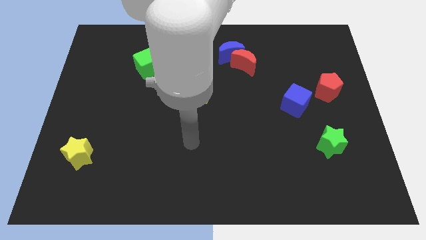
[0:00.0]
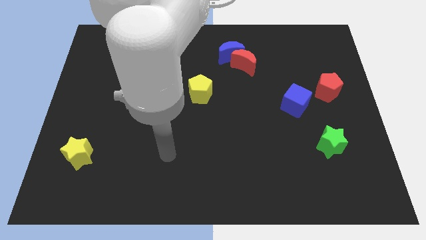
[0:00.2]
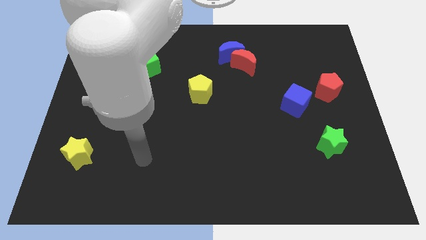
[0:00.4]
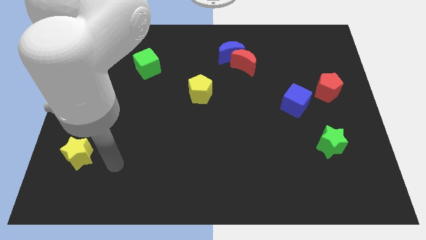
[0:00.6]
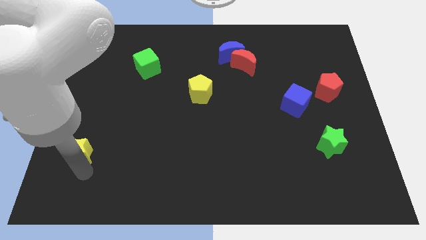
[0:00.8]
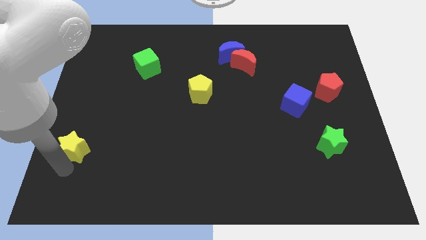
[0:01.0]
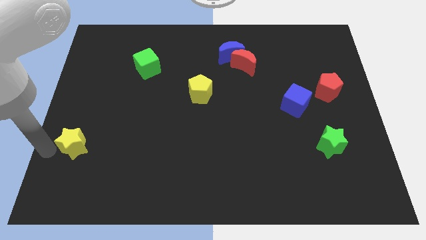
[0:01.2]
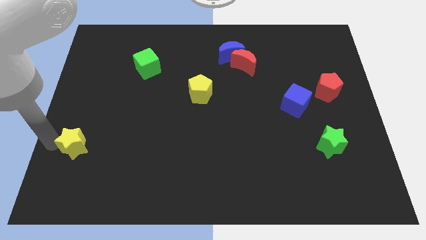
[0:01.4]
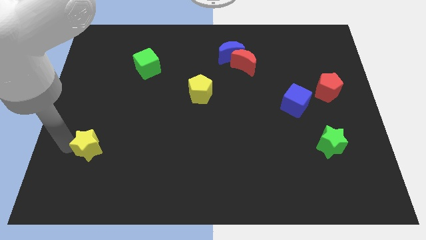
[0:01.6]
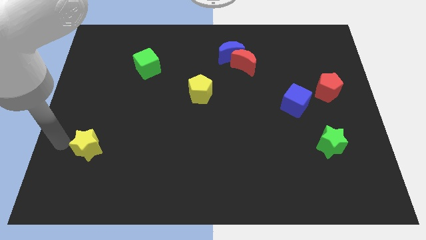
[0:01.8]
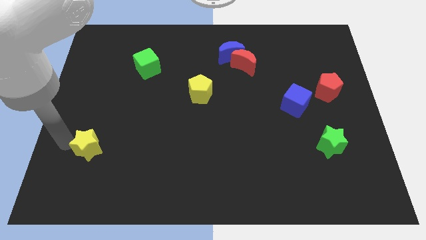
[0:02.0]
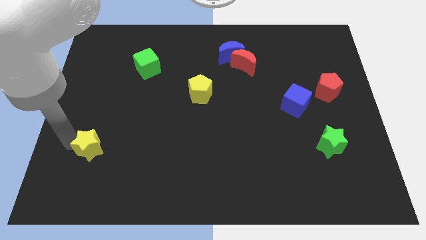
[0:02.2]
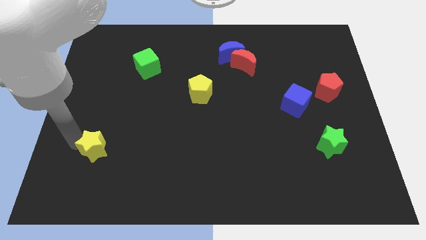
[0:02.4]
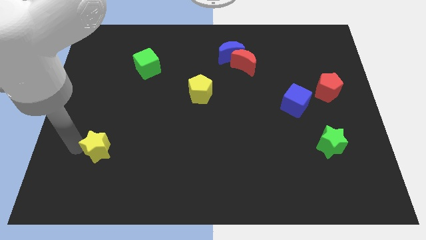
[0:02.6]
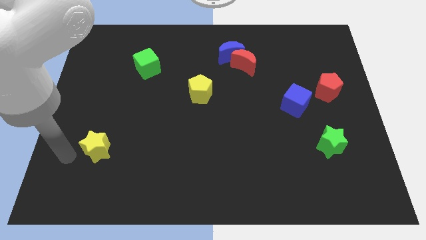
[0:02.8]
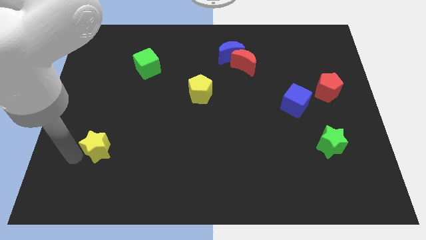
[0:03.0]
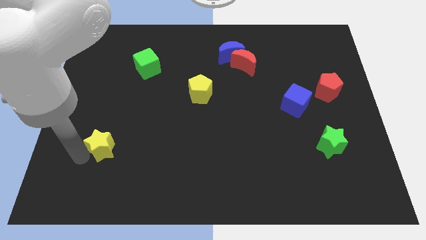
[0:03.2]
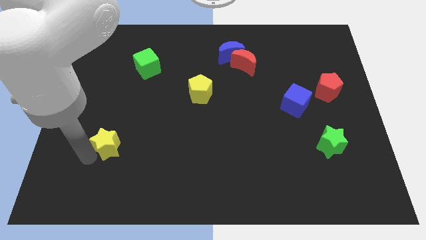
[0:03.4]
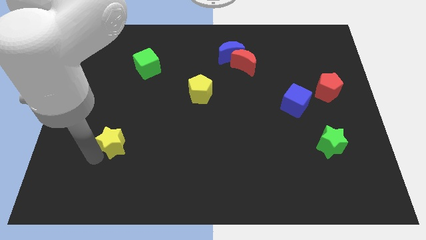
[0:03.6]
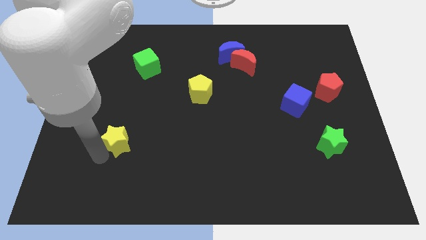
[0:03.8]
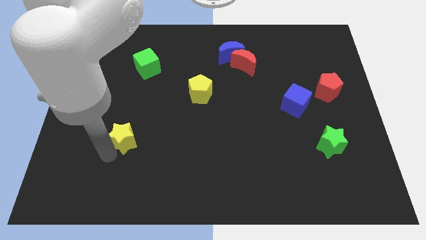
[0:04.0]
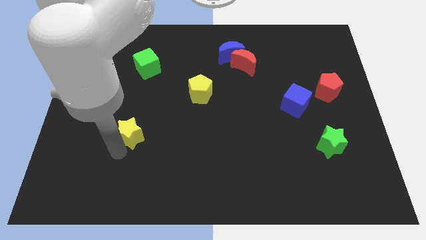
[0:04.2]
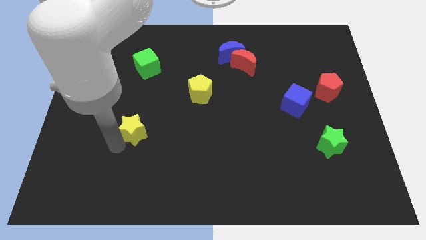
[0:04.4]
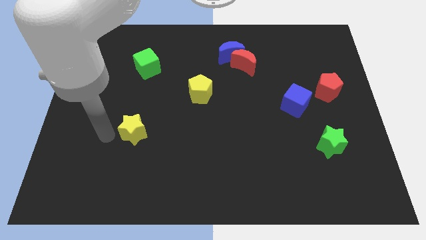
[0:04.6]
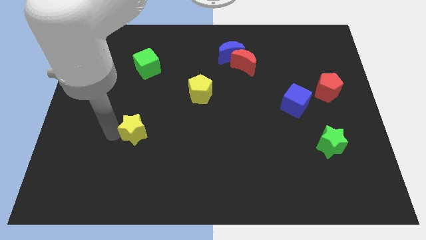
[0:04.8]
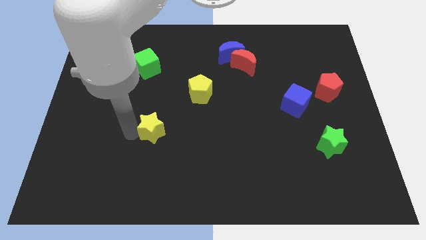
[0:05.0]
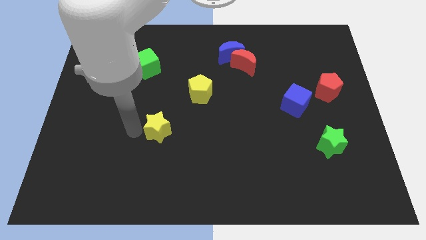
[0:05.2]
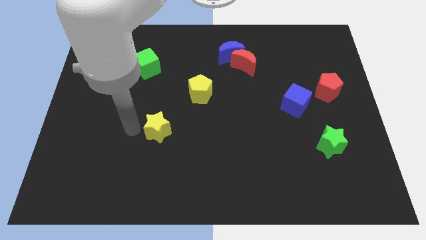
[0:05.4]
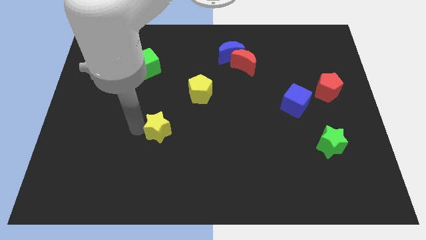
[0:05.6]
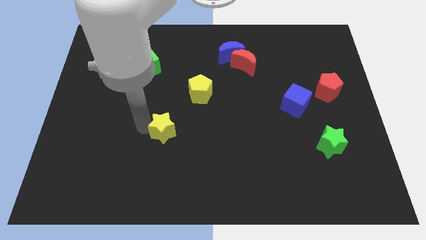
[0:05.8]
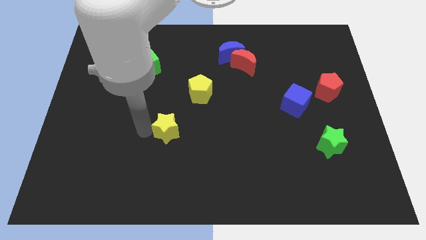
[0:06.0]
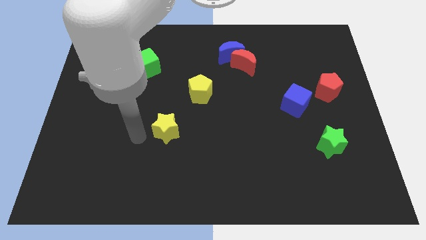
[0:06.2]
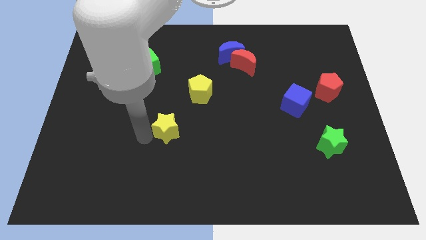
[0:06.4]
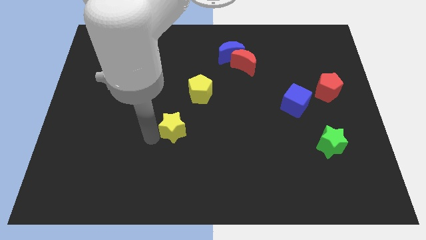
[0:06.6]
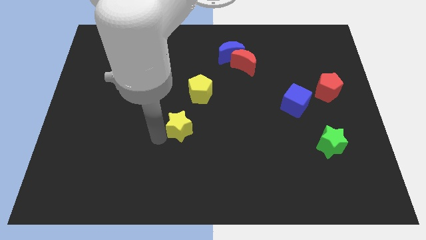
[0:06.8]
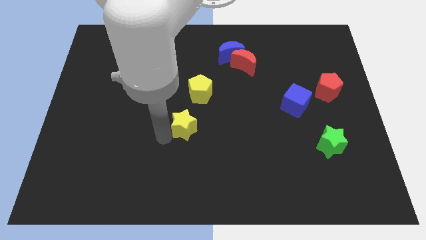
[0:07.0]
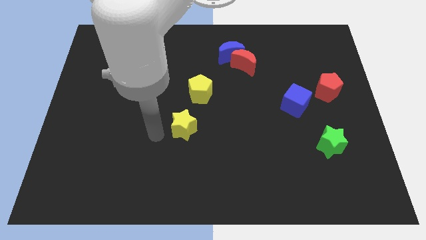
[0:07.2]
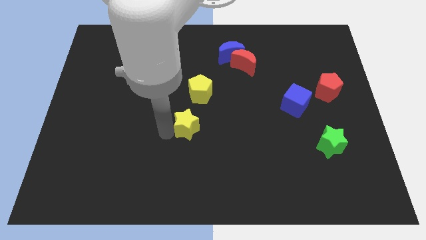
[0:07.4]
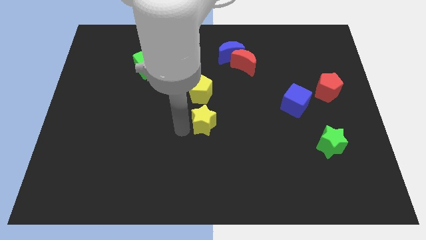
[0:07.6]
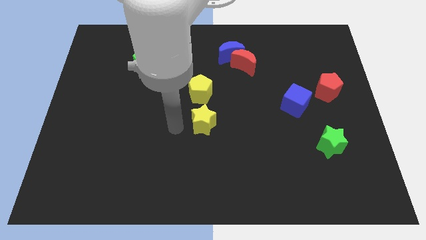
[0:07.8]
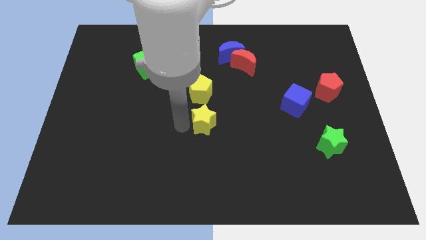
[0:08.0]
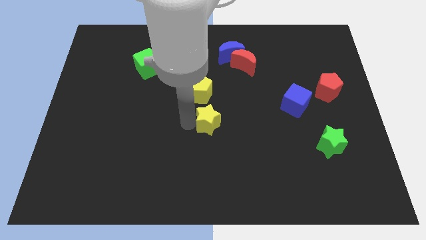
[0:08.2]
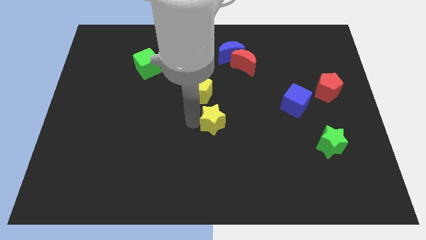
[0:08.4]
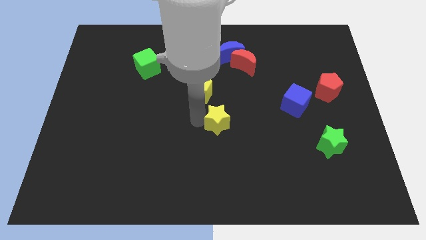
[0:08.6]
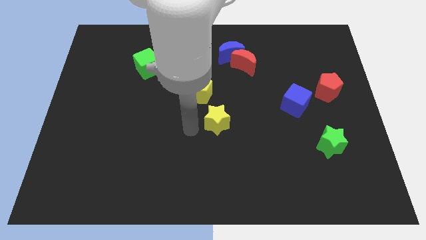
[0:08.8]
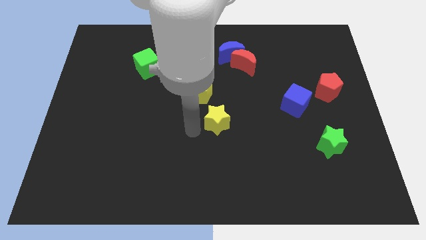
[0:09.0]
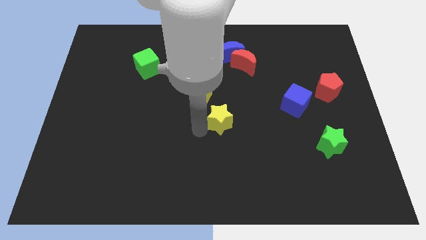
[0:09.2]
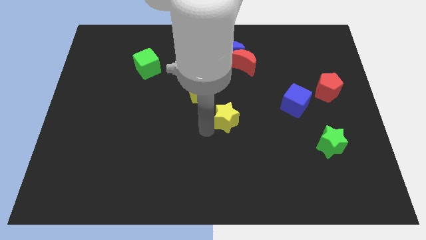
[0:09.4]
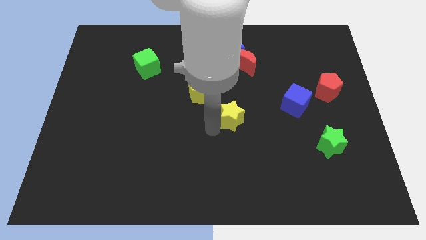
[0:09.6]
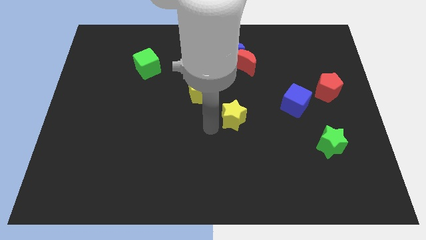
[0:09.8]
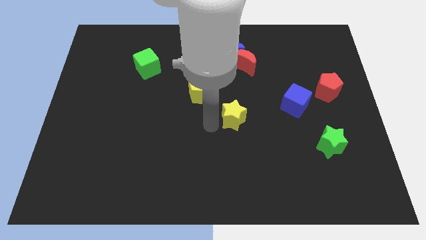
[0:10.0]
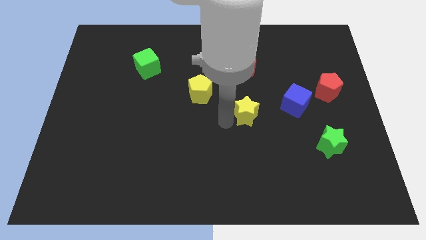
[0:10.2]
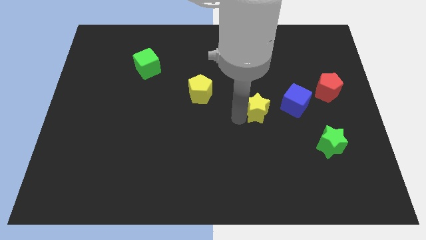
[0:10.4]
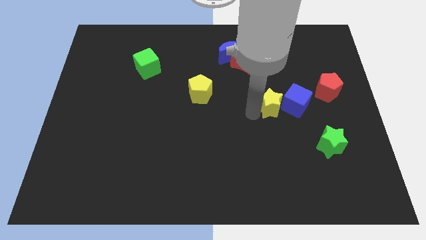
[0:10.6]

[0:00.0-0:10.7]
push the yellow star towards the blue cube

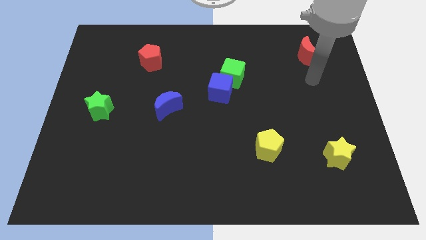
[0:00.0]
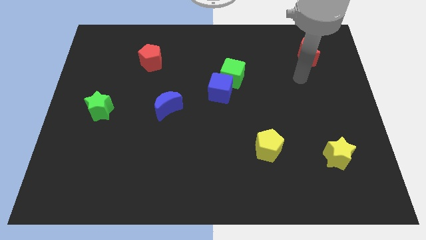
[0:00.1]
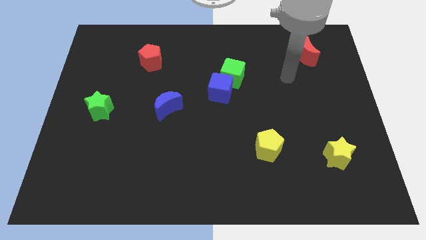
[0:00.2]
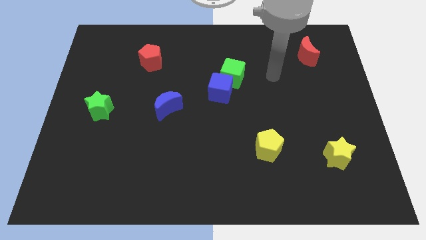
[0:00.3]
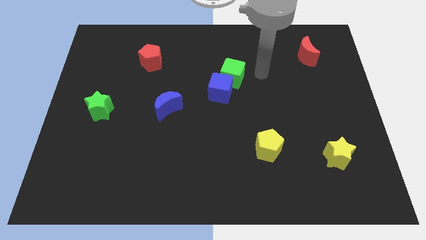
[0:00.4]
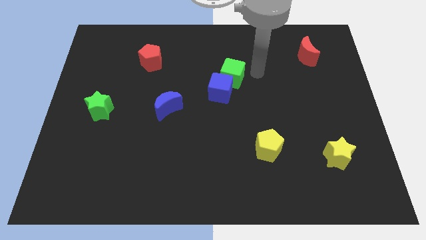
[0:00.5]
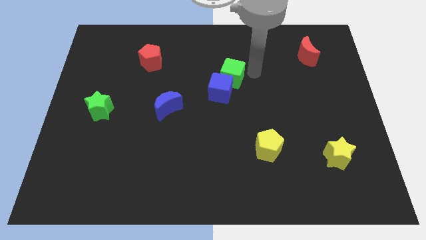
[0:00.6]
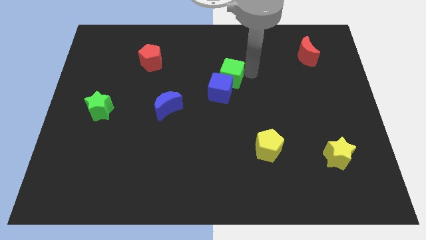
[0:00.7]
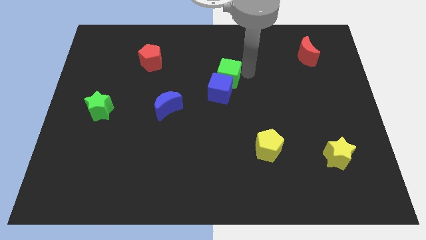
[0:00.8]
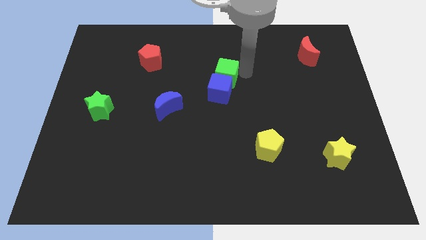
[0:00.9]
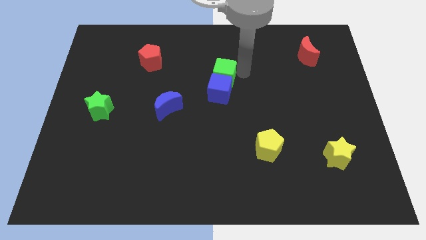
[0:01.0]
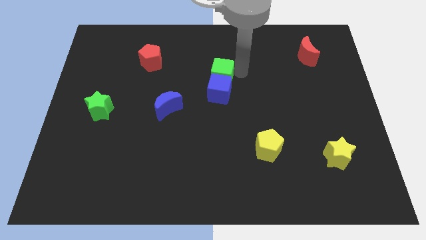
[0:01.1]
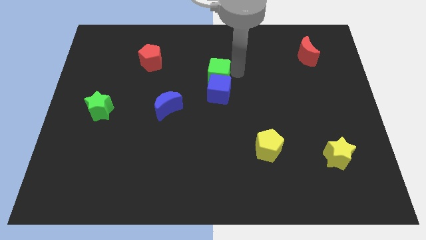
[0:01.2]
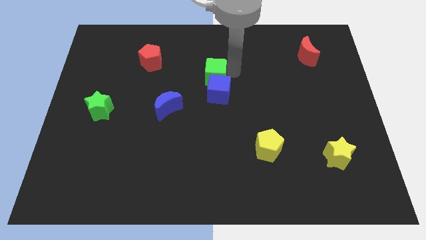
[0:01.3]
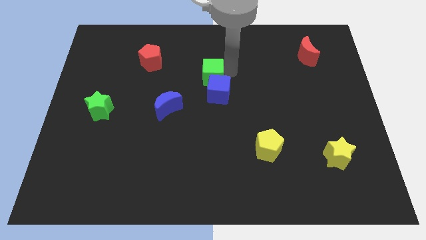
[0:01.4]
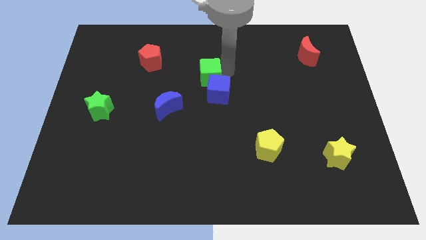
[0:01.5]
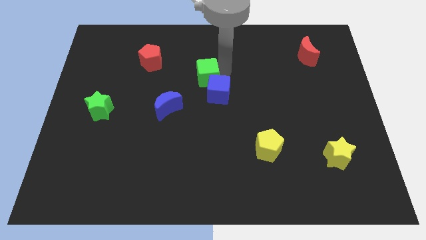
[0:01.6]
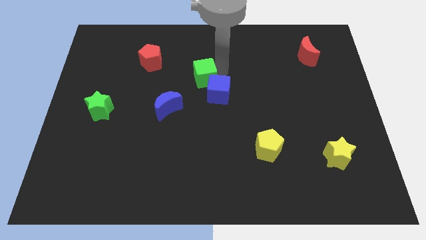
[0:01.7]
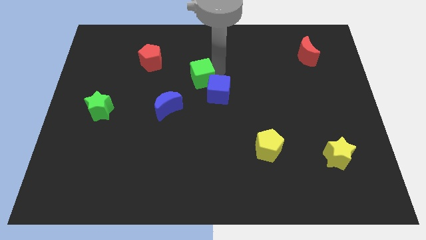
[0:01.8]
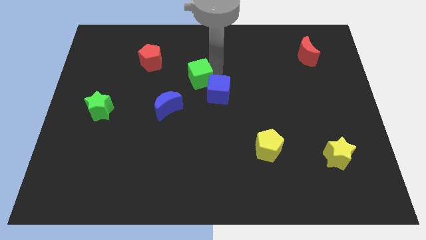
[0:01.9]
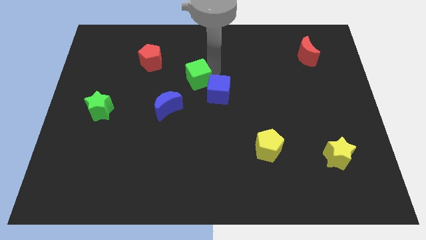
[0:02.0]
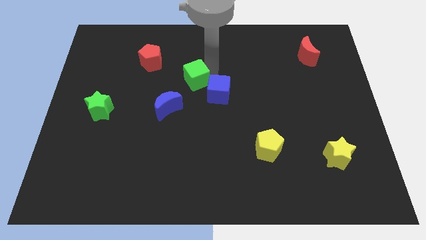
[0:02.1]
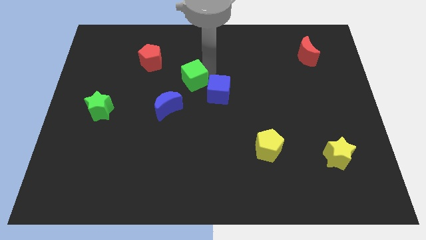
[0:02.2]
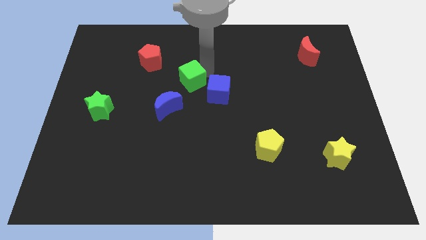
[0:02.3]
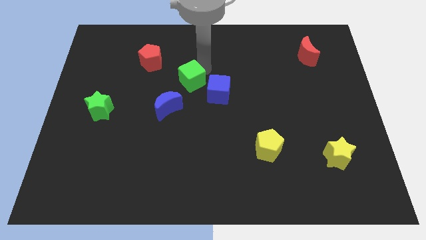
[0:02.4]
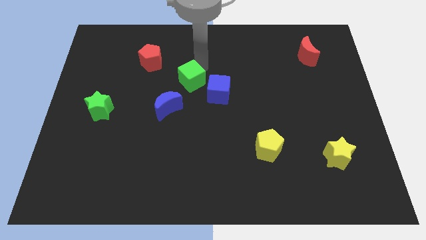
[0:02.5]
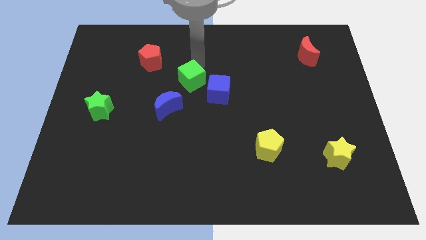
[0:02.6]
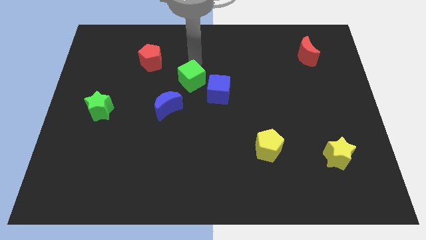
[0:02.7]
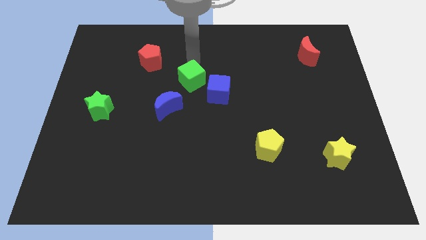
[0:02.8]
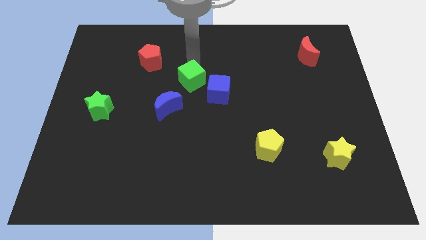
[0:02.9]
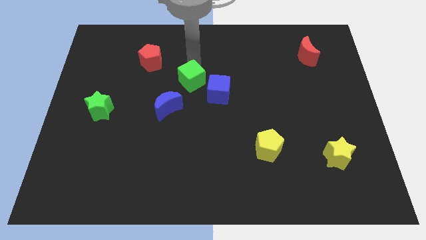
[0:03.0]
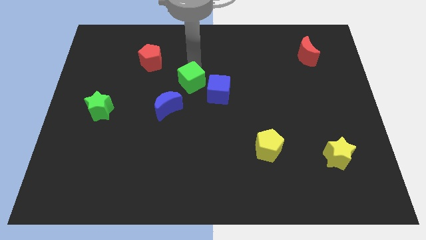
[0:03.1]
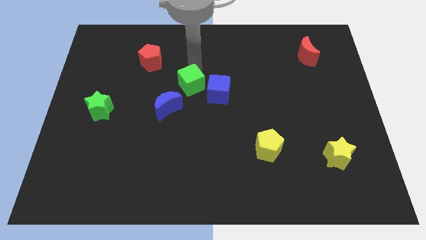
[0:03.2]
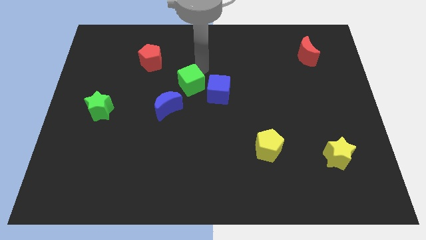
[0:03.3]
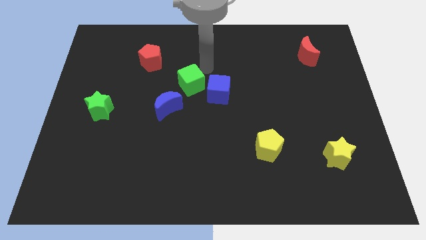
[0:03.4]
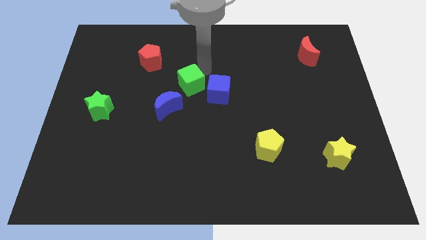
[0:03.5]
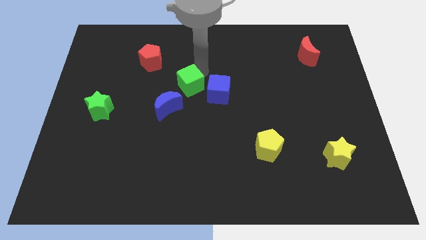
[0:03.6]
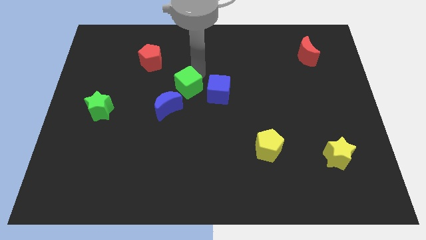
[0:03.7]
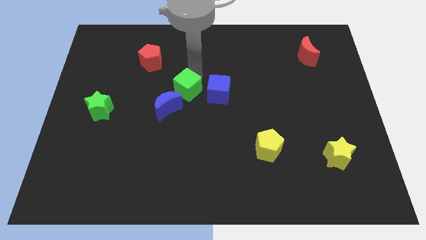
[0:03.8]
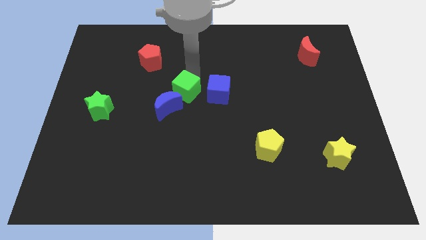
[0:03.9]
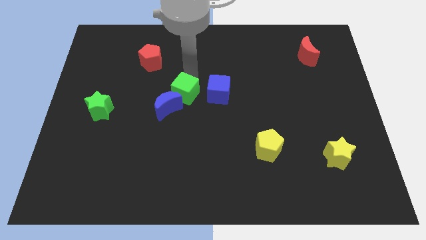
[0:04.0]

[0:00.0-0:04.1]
slide the green cube to the blue moon
